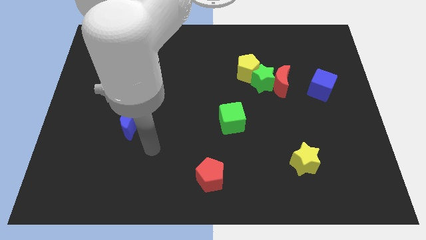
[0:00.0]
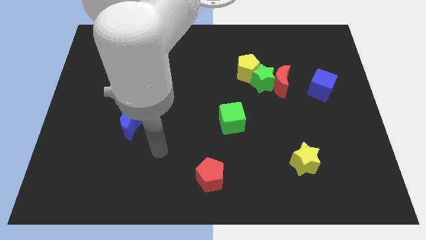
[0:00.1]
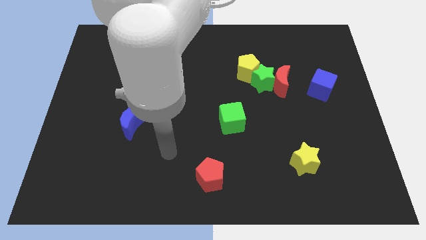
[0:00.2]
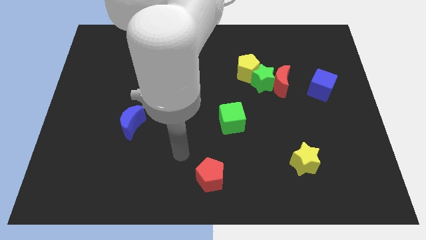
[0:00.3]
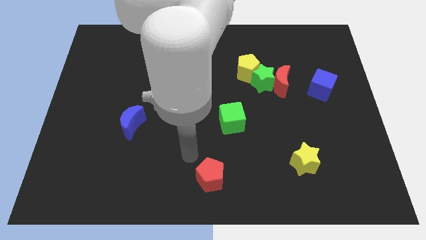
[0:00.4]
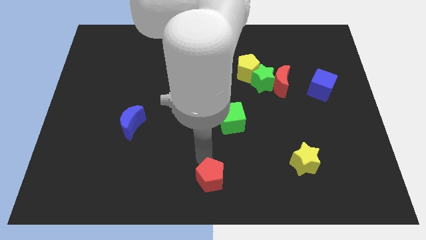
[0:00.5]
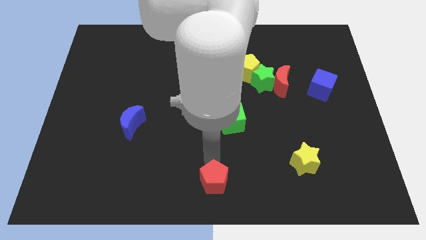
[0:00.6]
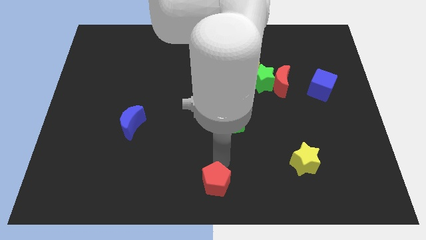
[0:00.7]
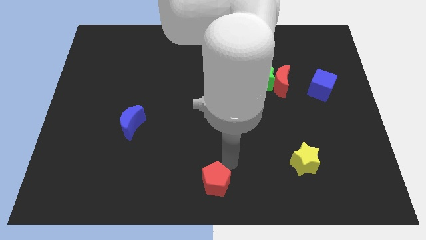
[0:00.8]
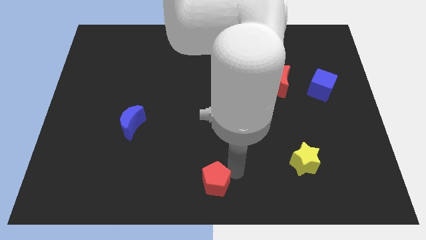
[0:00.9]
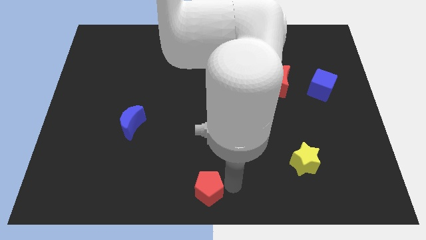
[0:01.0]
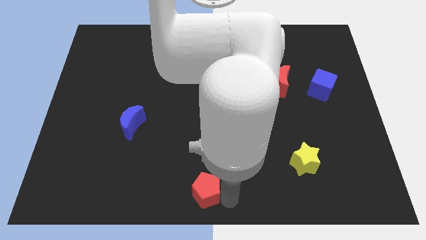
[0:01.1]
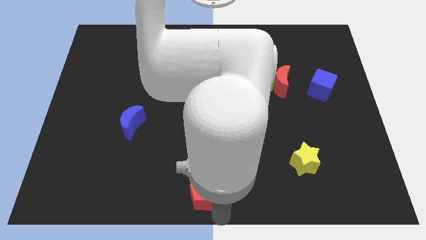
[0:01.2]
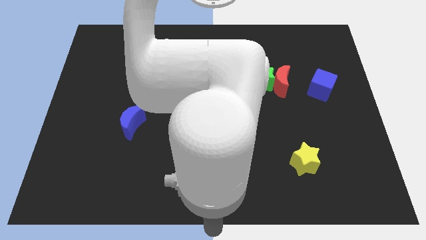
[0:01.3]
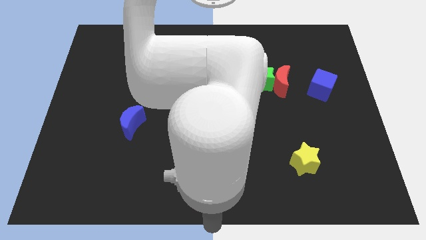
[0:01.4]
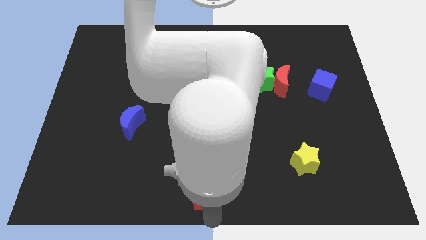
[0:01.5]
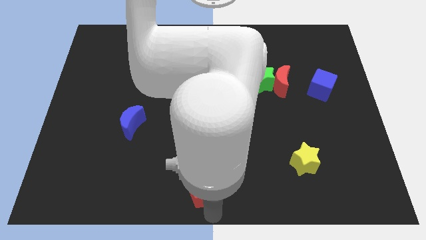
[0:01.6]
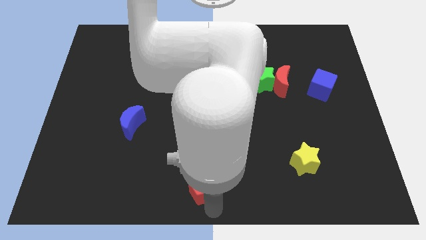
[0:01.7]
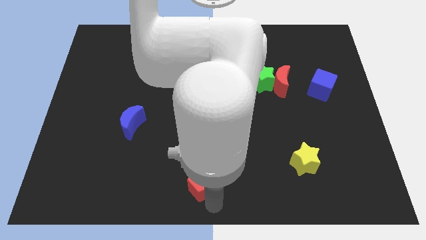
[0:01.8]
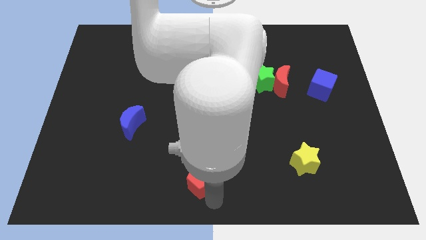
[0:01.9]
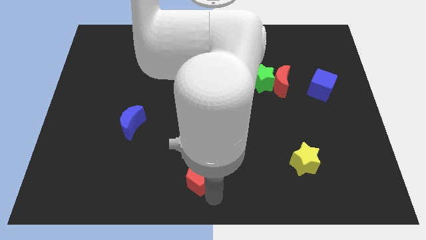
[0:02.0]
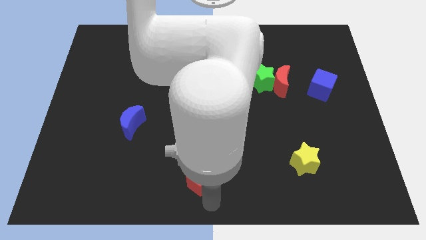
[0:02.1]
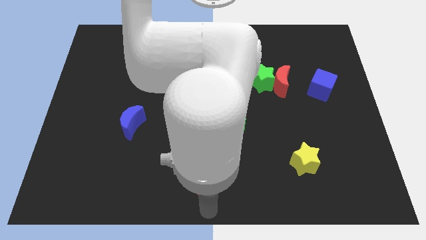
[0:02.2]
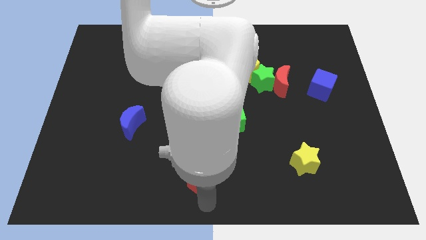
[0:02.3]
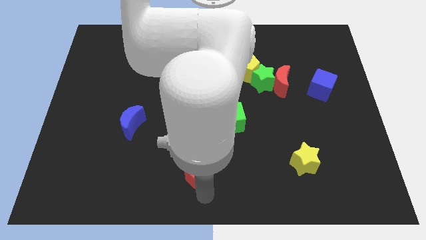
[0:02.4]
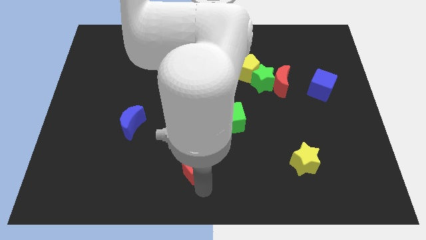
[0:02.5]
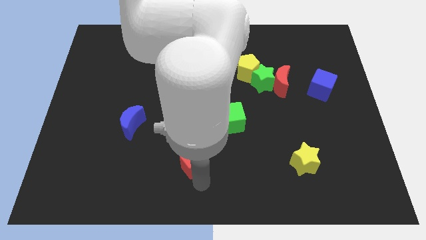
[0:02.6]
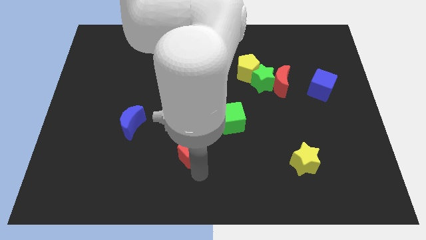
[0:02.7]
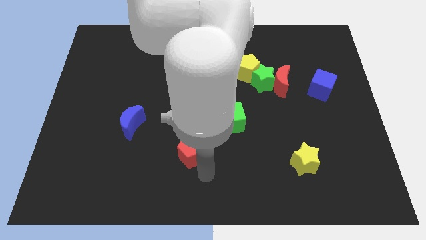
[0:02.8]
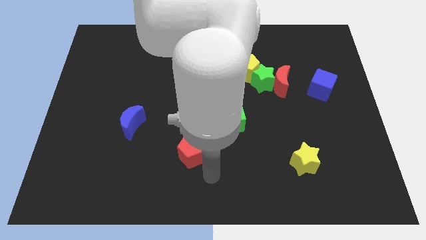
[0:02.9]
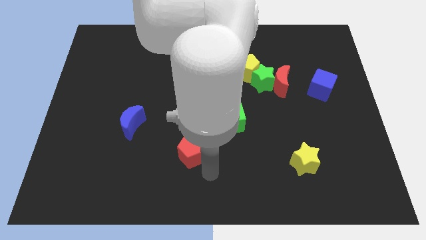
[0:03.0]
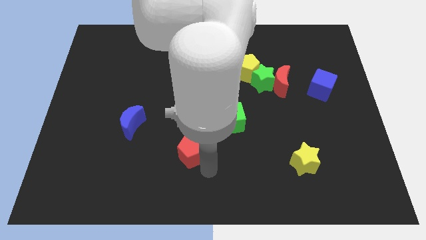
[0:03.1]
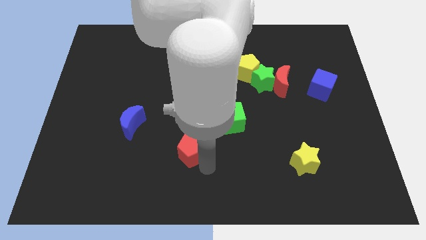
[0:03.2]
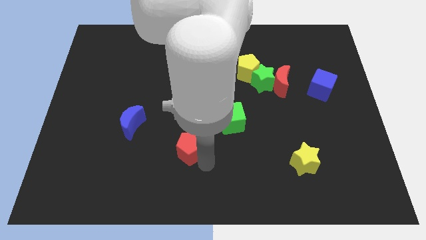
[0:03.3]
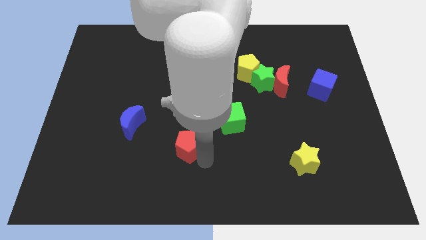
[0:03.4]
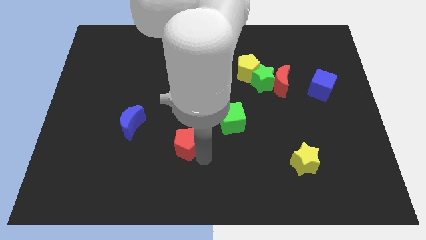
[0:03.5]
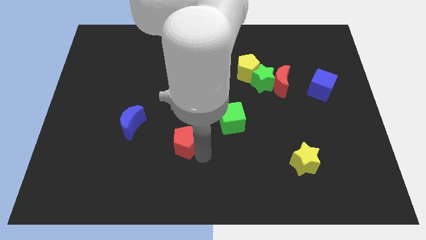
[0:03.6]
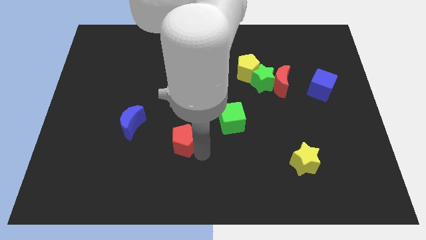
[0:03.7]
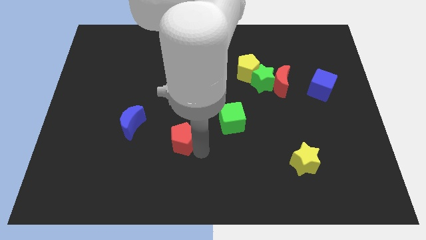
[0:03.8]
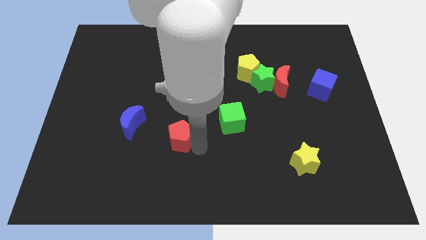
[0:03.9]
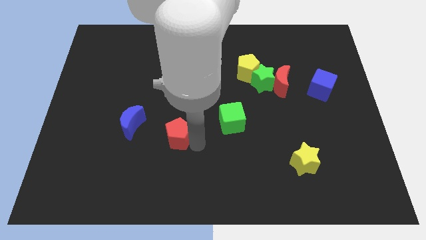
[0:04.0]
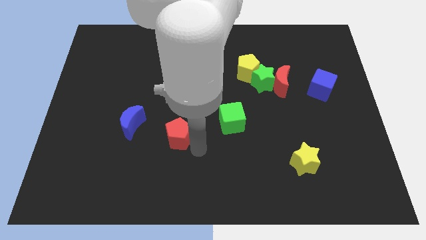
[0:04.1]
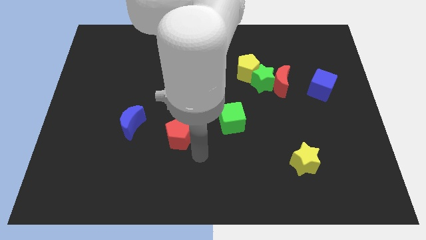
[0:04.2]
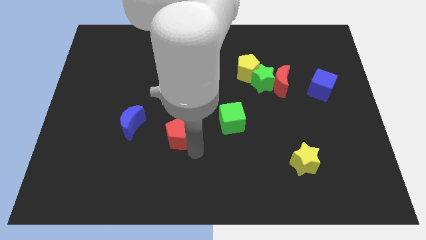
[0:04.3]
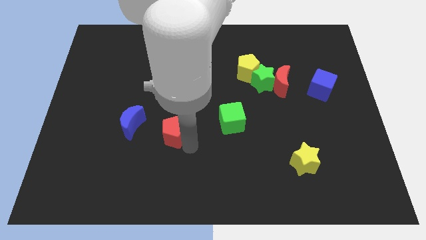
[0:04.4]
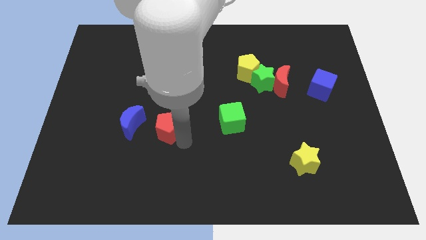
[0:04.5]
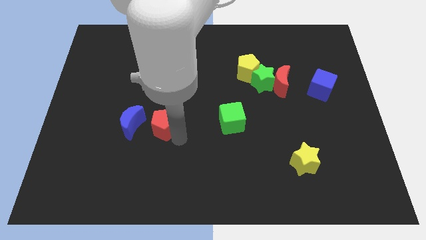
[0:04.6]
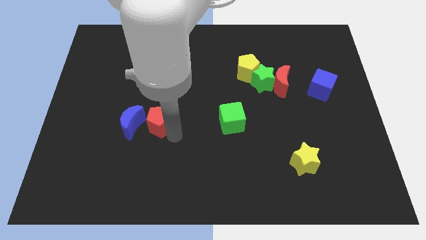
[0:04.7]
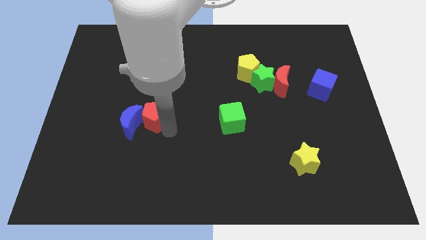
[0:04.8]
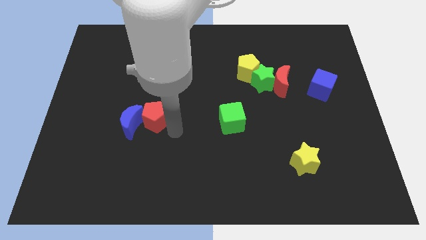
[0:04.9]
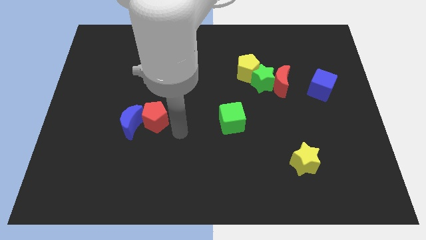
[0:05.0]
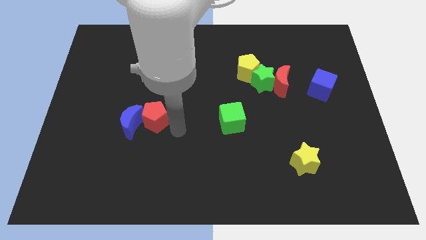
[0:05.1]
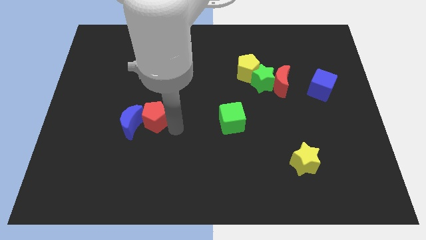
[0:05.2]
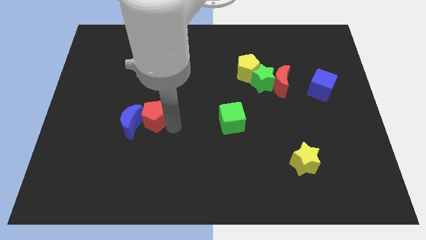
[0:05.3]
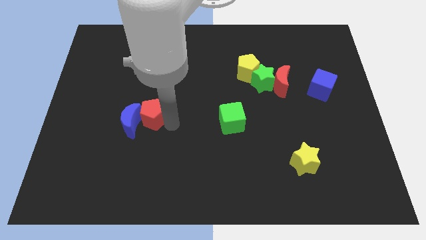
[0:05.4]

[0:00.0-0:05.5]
move the red pentagon diagonally upwards and left

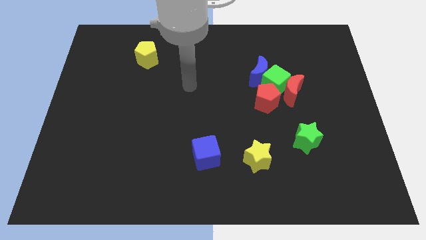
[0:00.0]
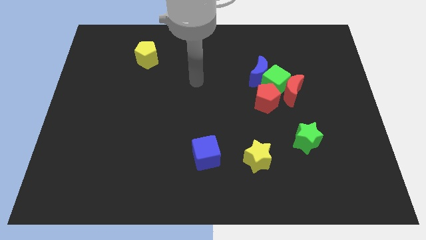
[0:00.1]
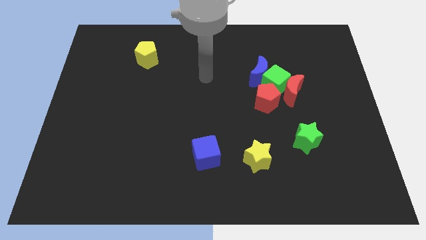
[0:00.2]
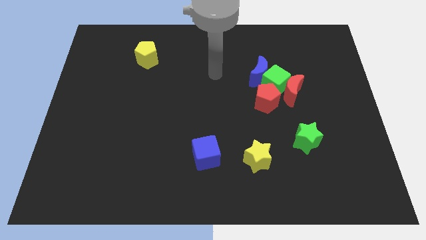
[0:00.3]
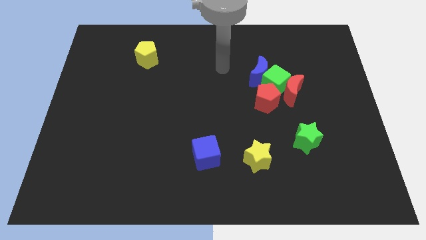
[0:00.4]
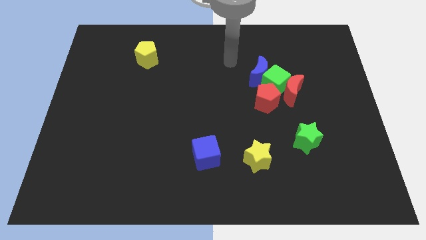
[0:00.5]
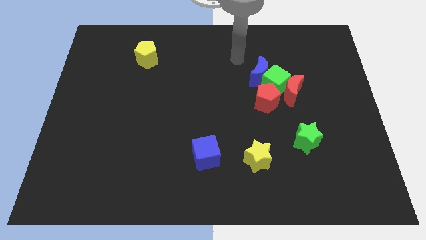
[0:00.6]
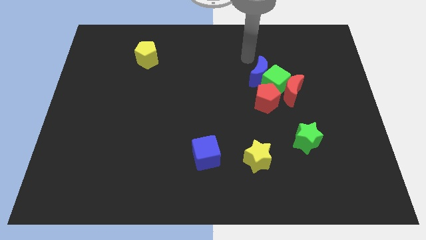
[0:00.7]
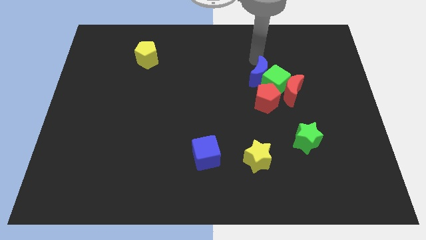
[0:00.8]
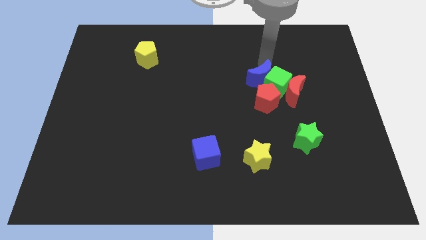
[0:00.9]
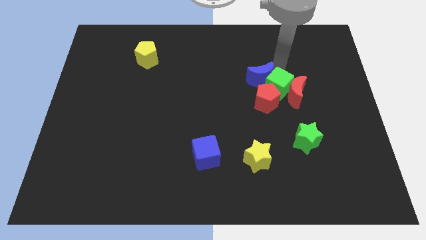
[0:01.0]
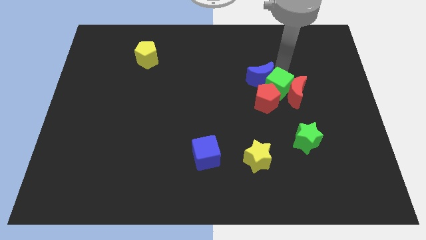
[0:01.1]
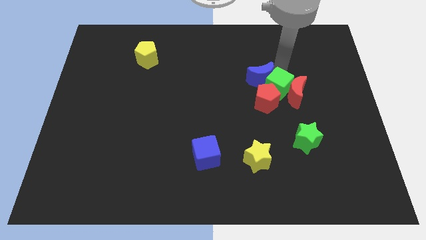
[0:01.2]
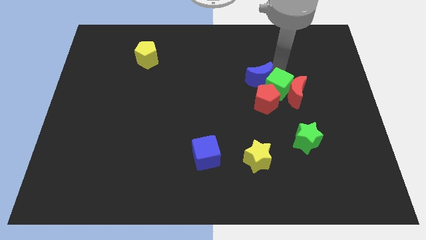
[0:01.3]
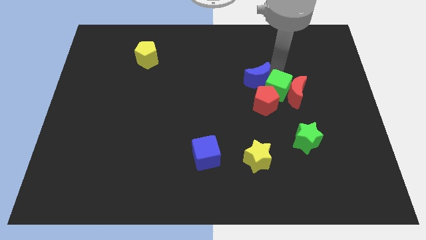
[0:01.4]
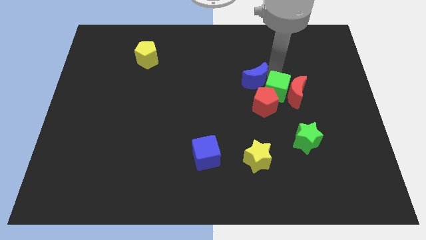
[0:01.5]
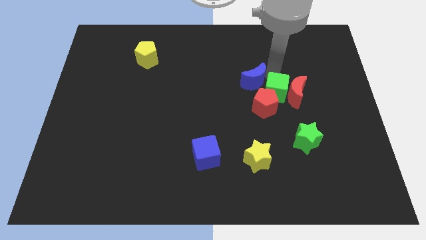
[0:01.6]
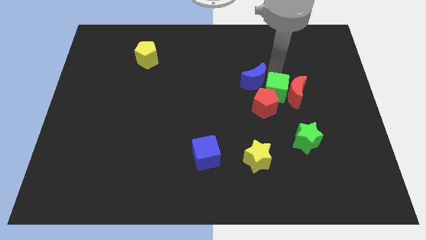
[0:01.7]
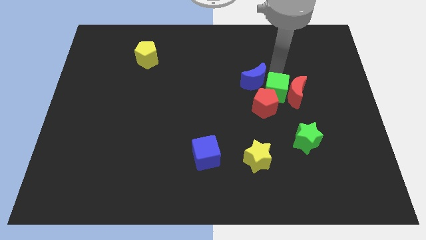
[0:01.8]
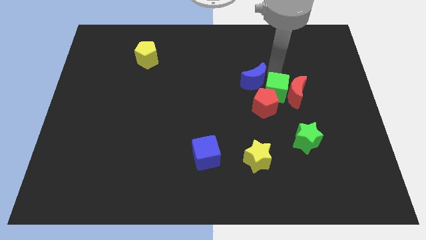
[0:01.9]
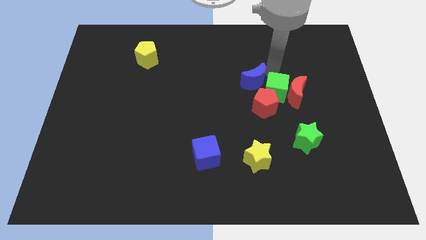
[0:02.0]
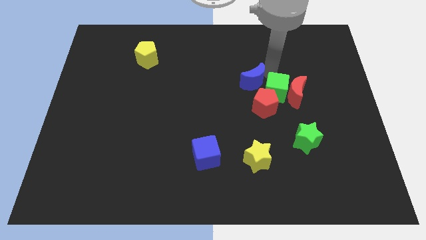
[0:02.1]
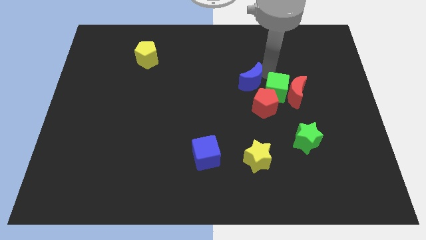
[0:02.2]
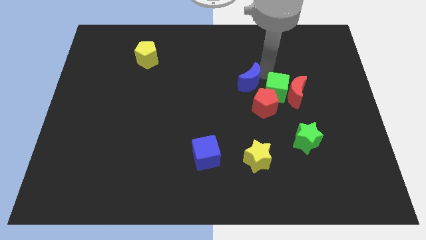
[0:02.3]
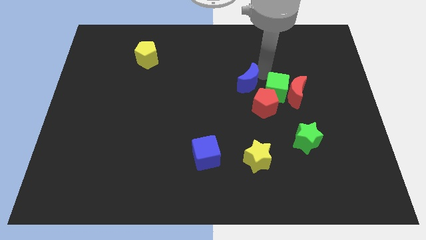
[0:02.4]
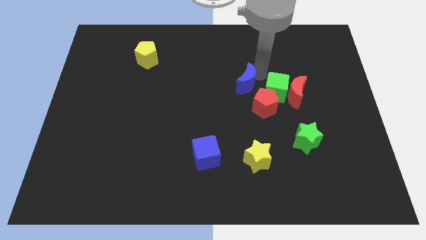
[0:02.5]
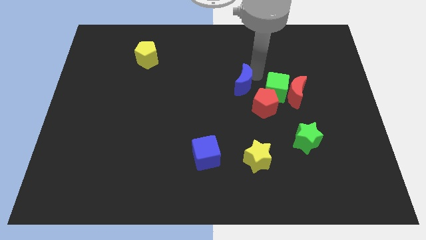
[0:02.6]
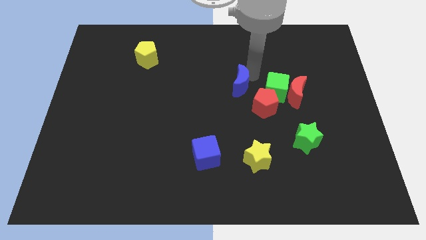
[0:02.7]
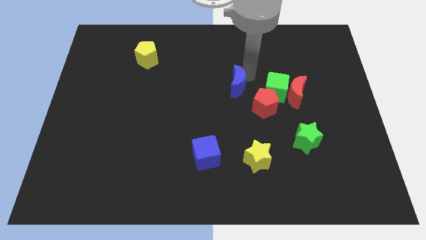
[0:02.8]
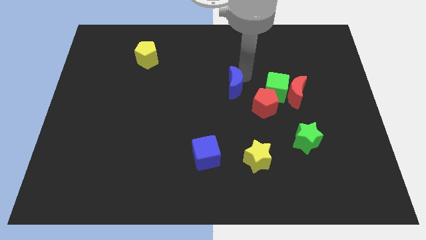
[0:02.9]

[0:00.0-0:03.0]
move the blue moon down and left diagonally a bit
